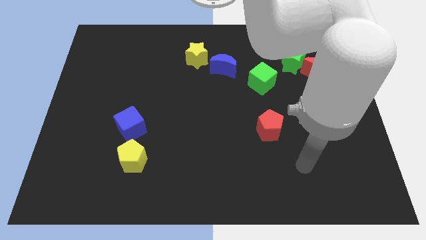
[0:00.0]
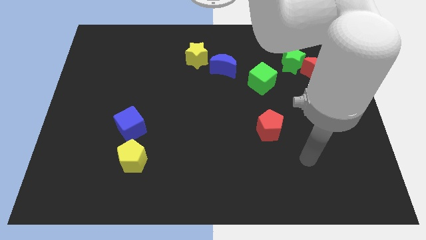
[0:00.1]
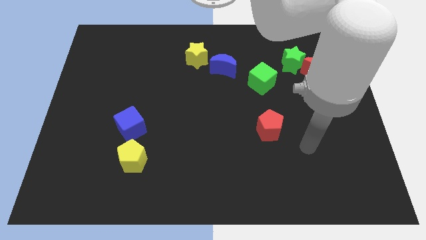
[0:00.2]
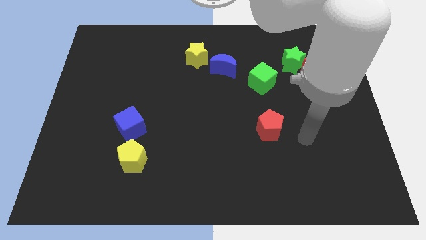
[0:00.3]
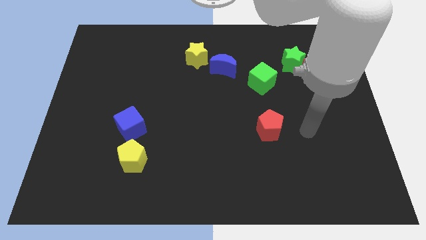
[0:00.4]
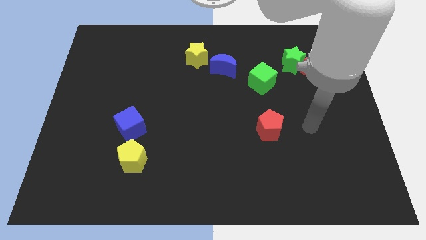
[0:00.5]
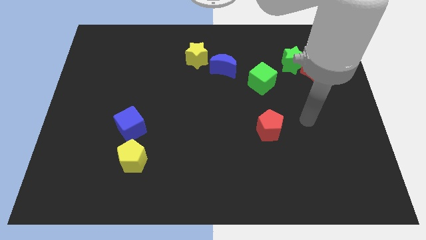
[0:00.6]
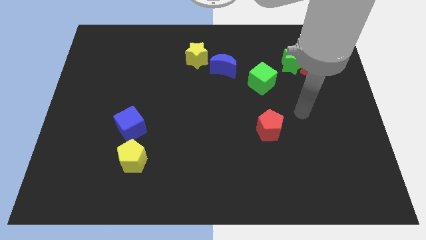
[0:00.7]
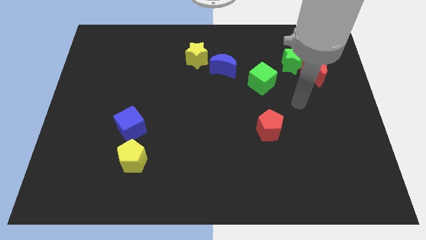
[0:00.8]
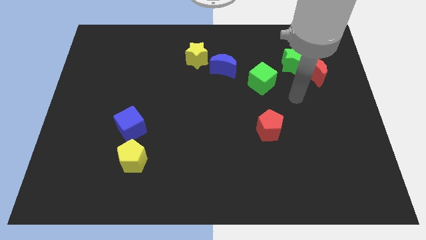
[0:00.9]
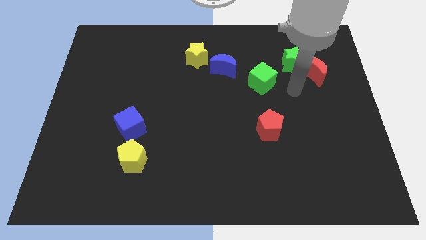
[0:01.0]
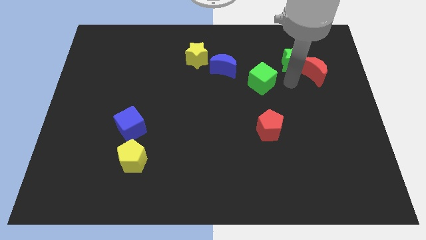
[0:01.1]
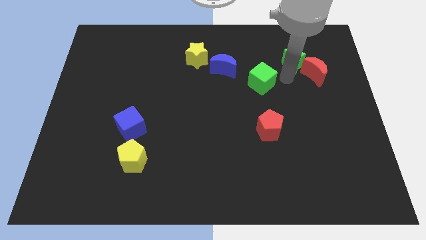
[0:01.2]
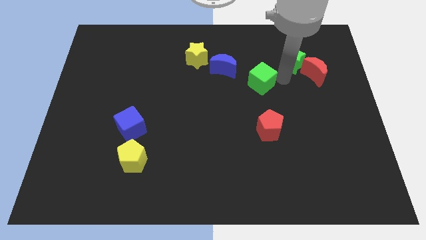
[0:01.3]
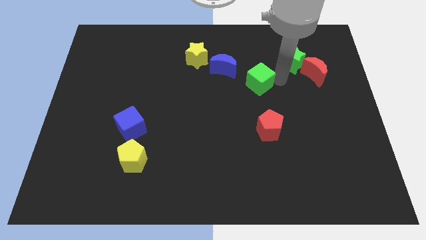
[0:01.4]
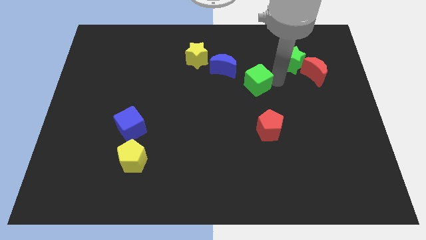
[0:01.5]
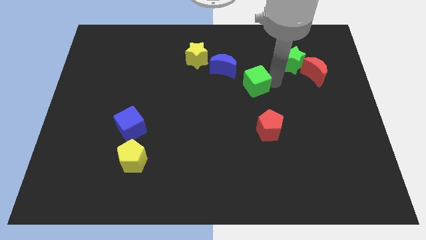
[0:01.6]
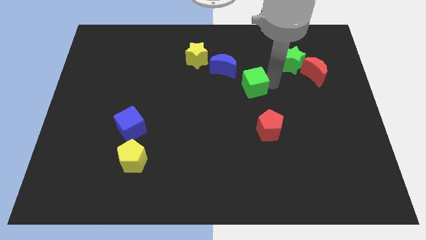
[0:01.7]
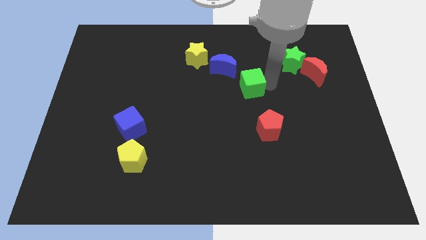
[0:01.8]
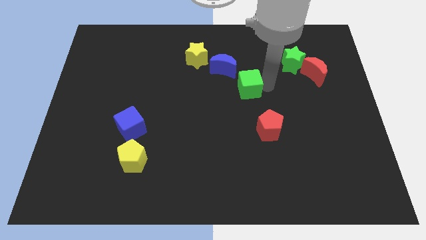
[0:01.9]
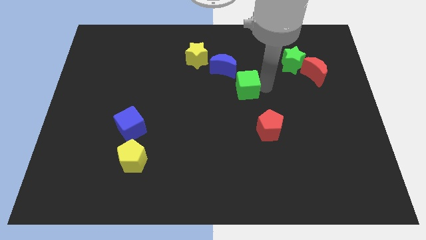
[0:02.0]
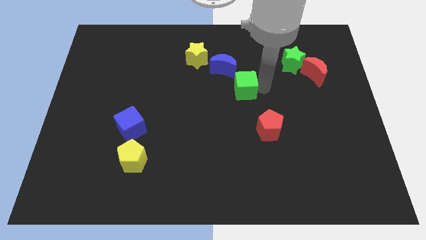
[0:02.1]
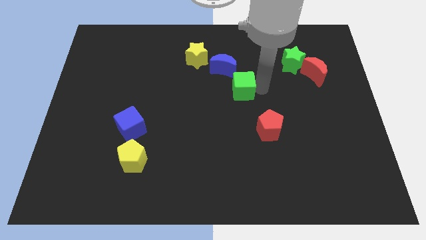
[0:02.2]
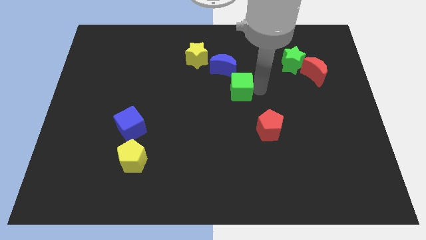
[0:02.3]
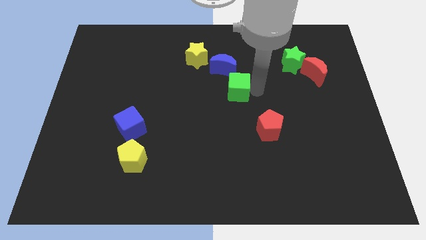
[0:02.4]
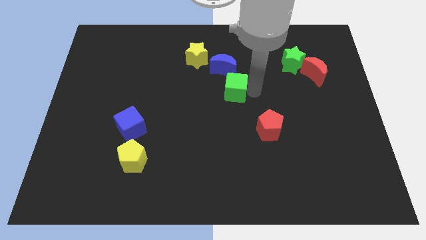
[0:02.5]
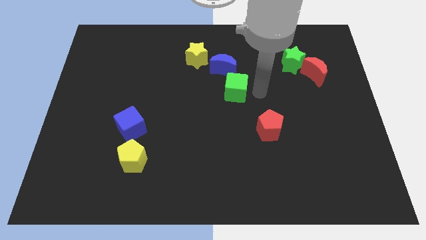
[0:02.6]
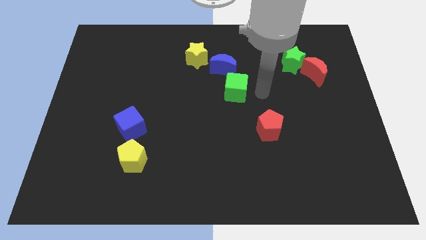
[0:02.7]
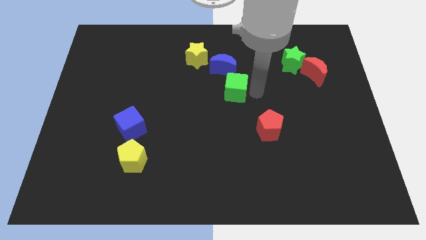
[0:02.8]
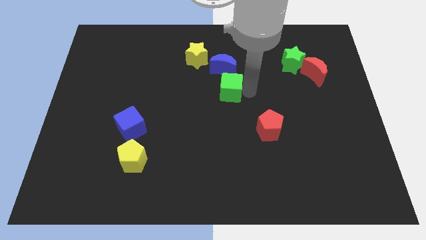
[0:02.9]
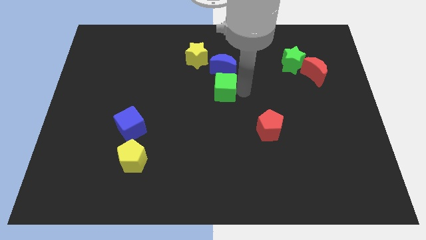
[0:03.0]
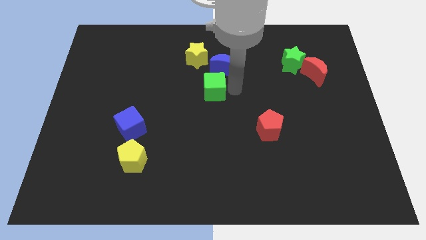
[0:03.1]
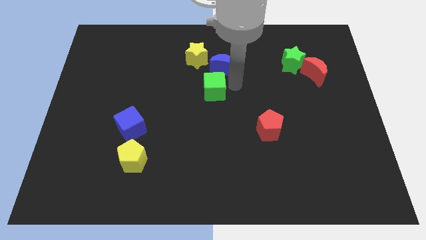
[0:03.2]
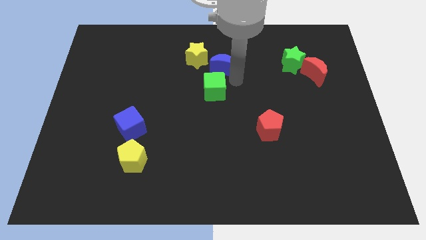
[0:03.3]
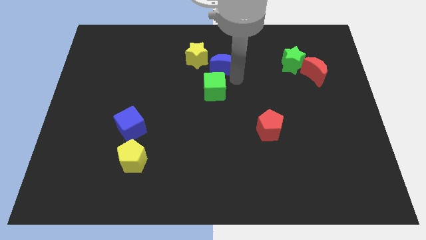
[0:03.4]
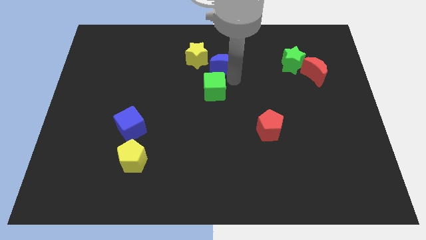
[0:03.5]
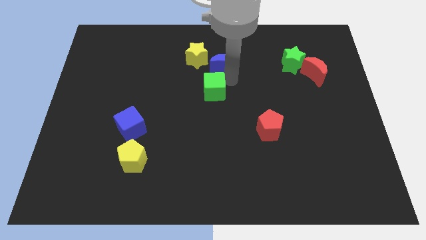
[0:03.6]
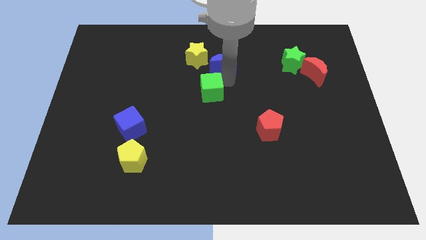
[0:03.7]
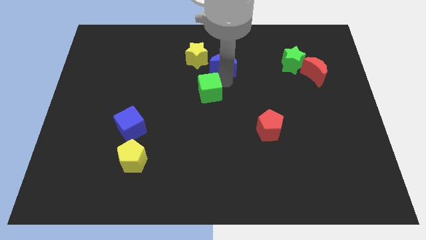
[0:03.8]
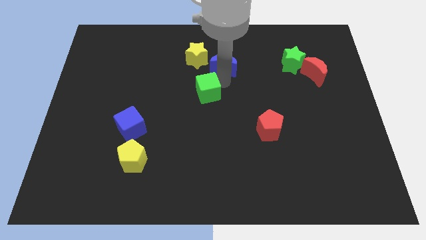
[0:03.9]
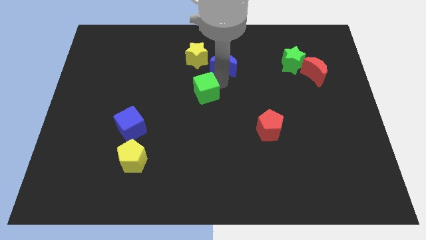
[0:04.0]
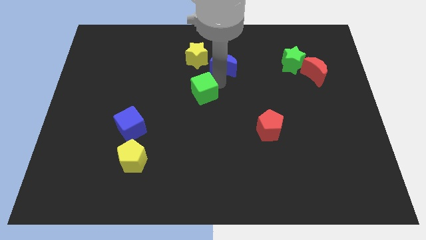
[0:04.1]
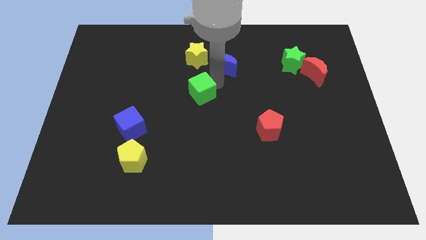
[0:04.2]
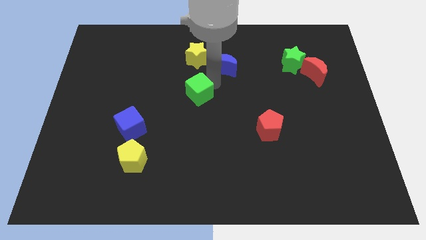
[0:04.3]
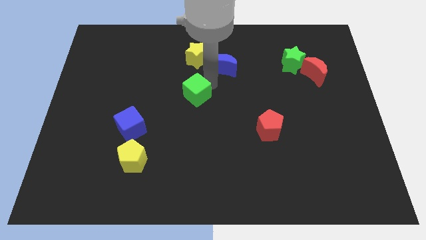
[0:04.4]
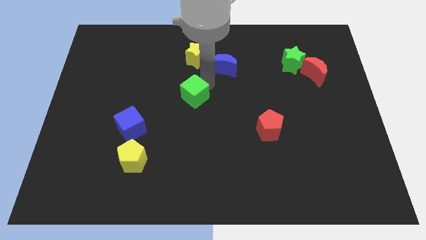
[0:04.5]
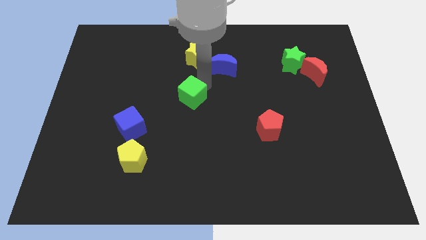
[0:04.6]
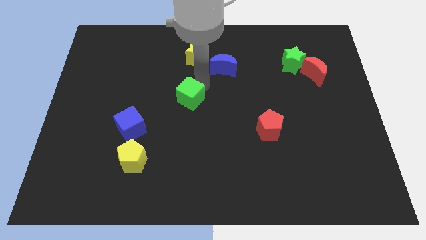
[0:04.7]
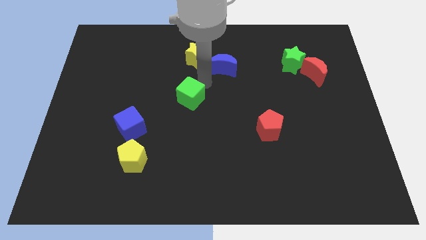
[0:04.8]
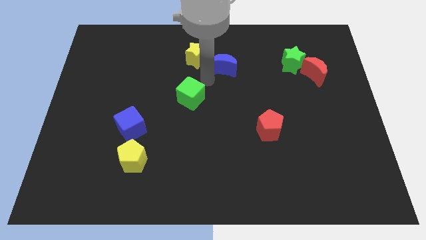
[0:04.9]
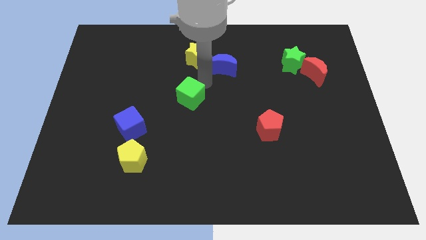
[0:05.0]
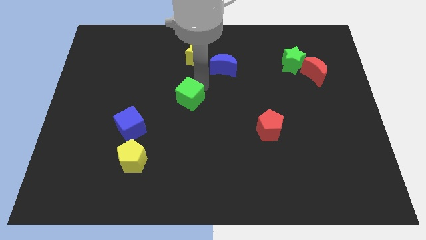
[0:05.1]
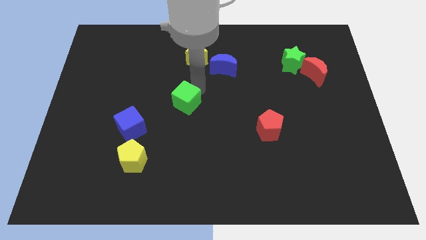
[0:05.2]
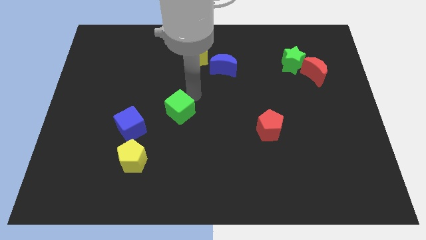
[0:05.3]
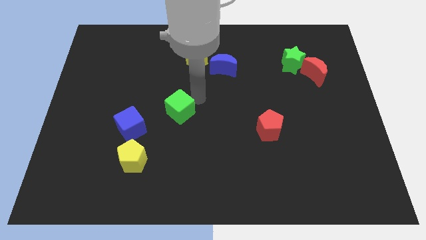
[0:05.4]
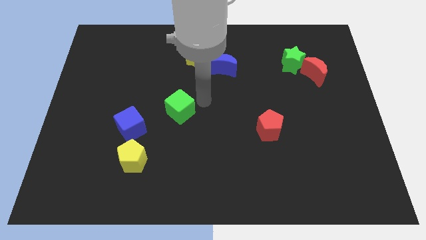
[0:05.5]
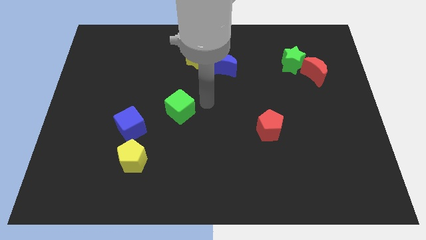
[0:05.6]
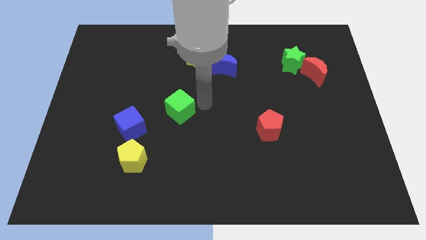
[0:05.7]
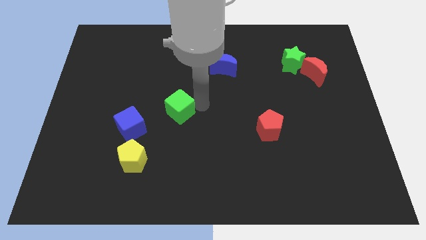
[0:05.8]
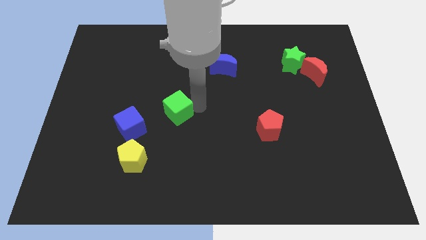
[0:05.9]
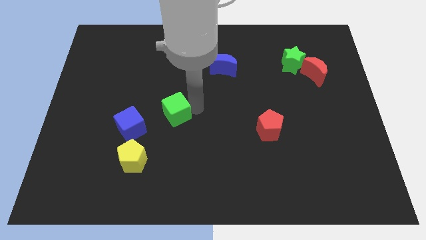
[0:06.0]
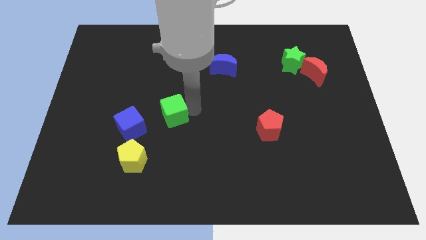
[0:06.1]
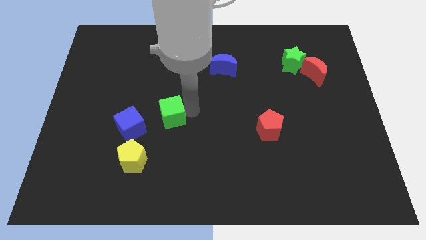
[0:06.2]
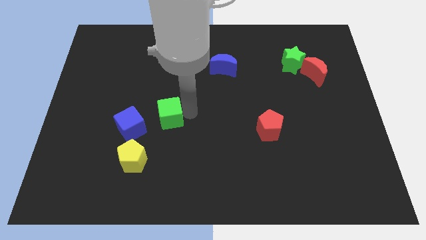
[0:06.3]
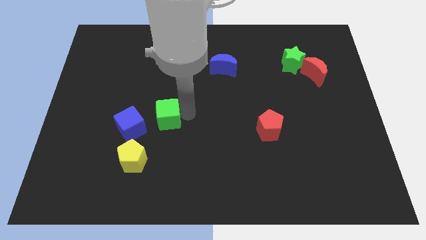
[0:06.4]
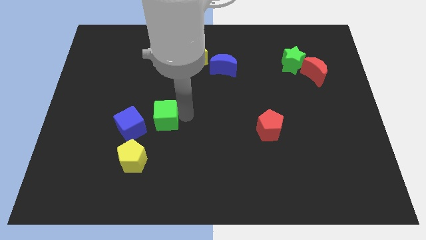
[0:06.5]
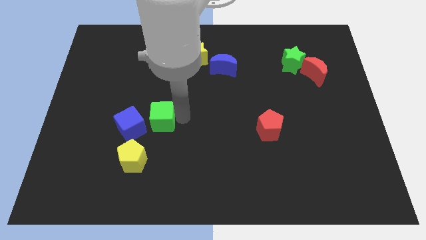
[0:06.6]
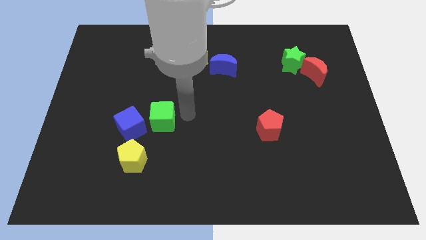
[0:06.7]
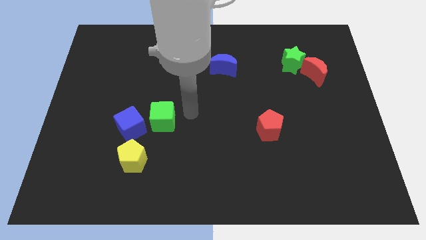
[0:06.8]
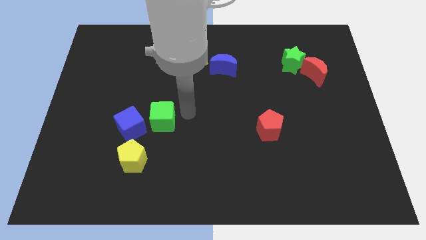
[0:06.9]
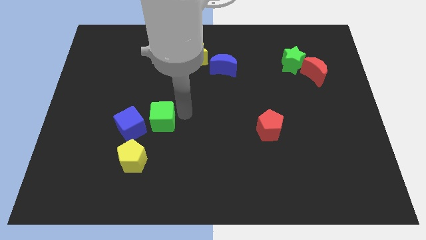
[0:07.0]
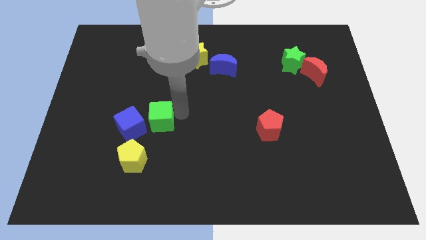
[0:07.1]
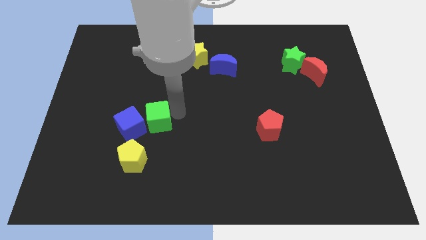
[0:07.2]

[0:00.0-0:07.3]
put the green cube to the blue cube

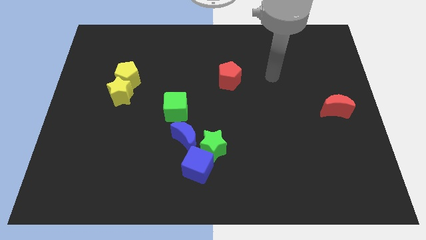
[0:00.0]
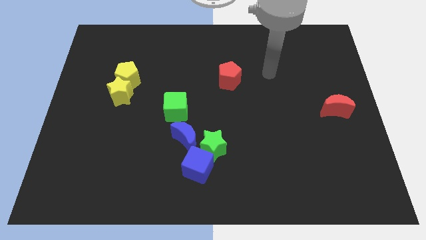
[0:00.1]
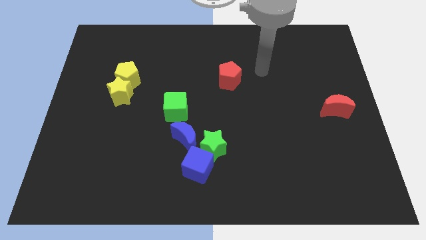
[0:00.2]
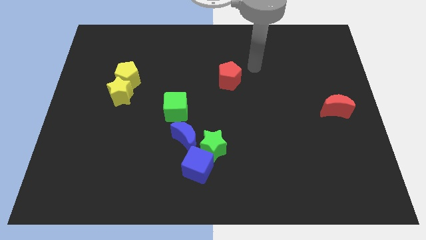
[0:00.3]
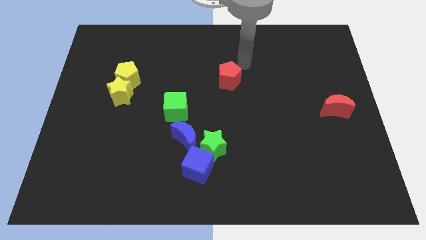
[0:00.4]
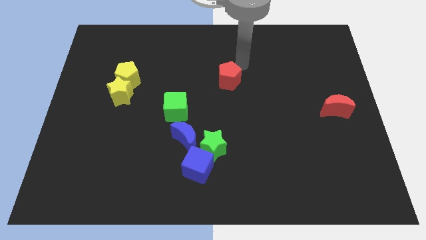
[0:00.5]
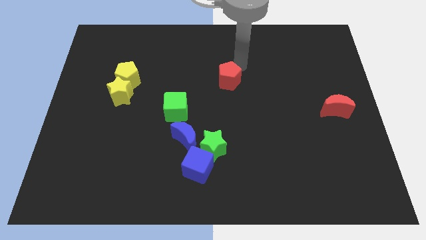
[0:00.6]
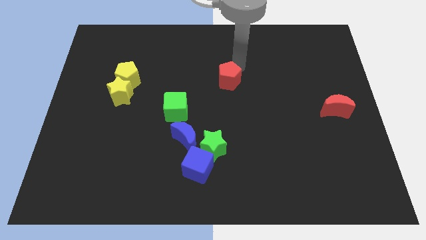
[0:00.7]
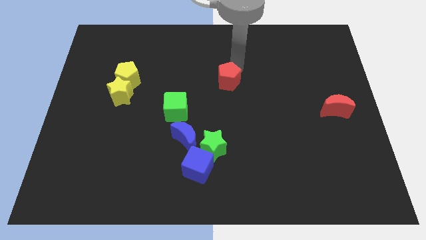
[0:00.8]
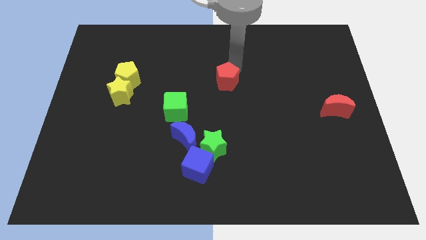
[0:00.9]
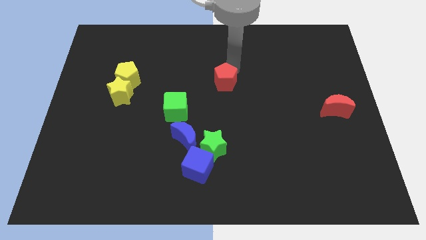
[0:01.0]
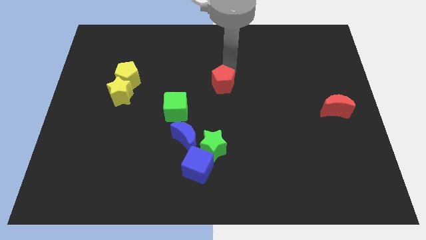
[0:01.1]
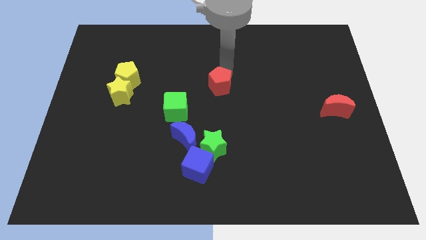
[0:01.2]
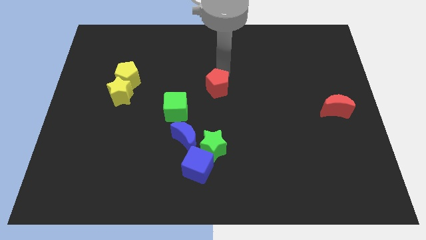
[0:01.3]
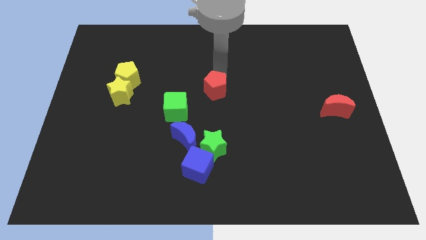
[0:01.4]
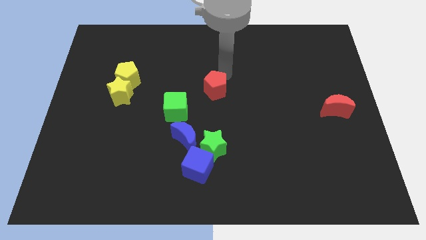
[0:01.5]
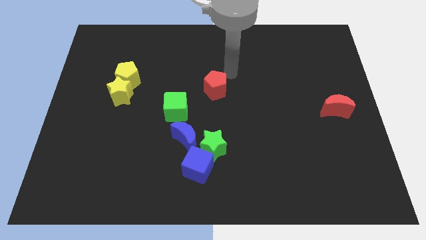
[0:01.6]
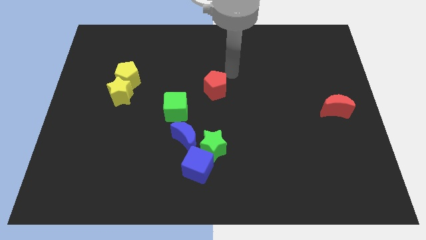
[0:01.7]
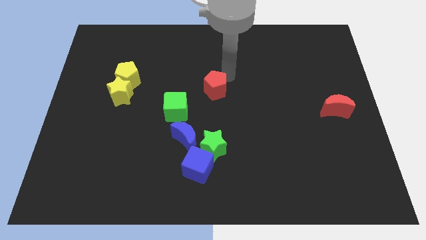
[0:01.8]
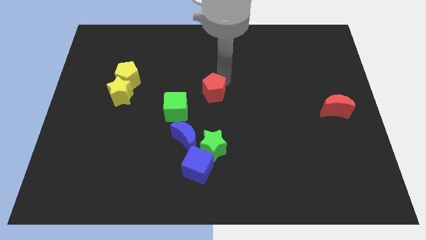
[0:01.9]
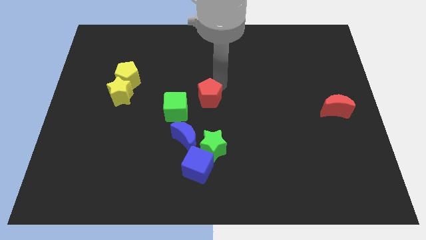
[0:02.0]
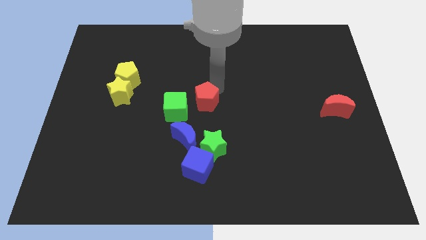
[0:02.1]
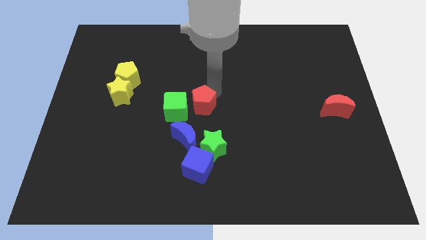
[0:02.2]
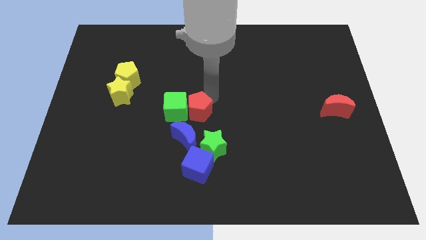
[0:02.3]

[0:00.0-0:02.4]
push the red pentagon to the green cube
